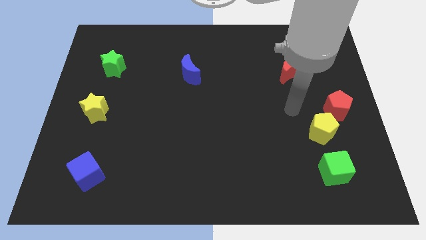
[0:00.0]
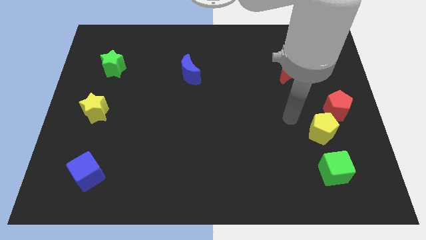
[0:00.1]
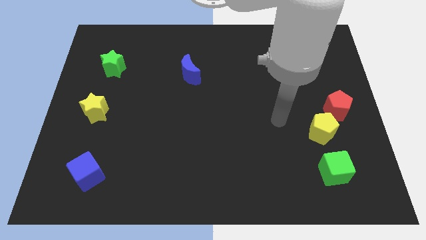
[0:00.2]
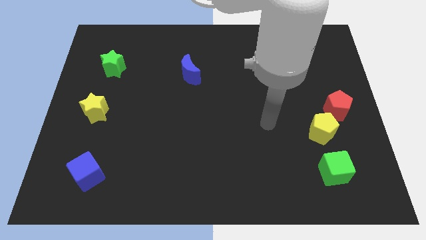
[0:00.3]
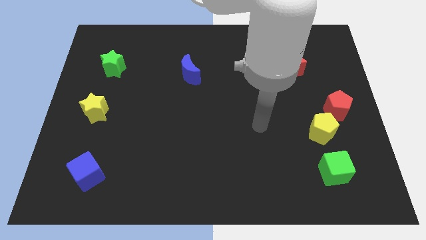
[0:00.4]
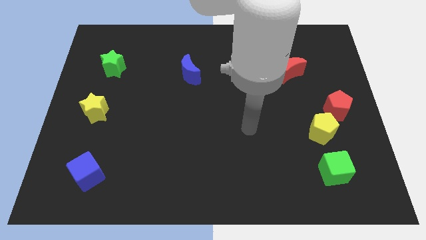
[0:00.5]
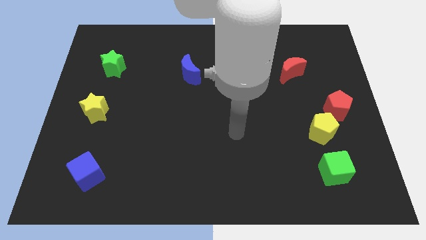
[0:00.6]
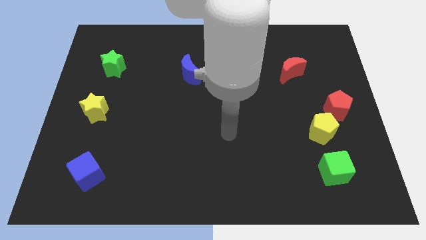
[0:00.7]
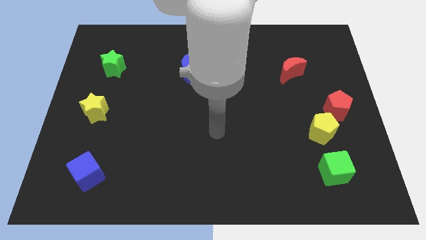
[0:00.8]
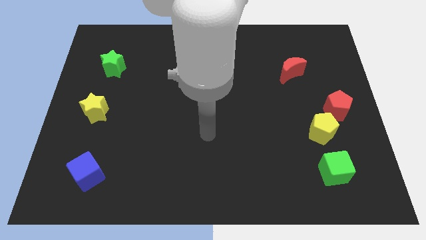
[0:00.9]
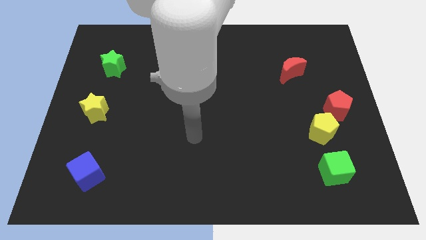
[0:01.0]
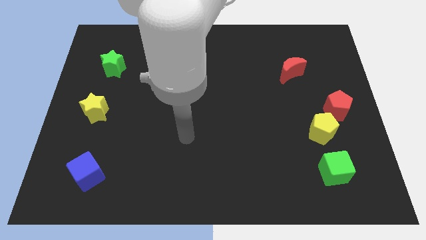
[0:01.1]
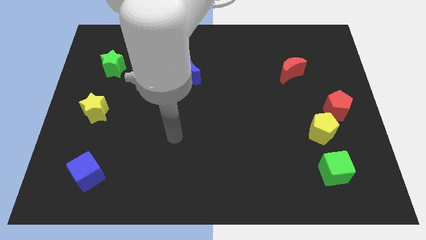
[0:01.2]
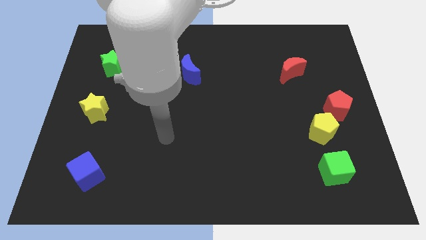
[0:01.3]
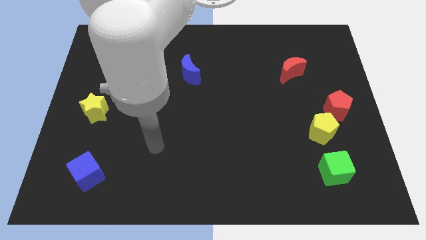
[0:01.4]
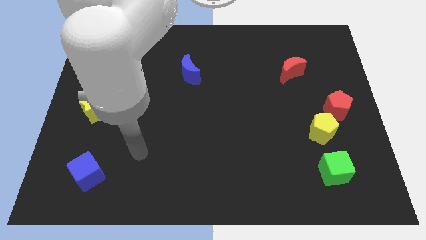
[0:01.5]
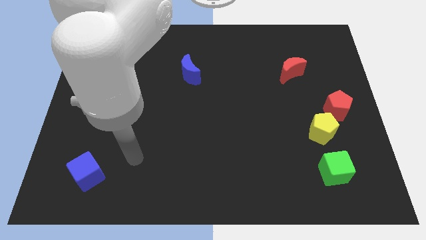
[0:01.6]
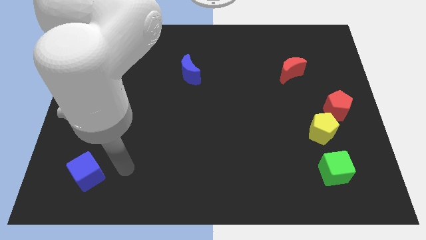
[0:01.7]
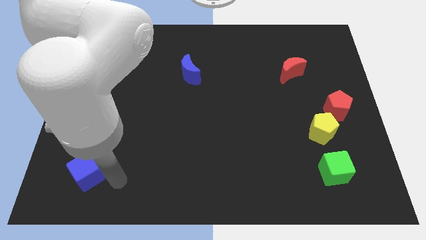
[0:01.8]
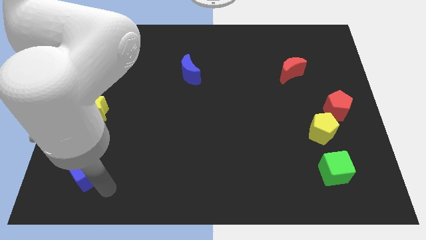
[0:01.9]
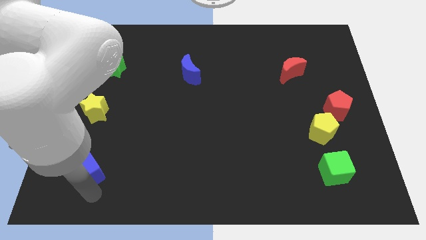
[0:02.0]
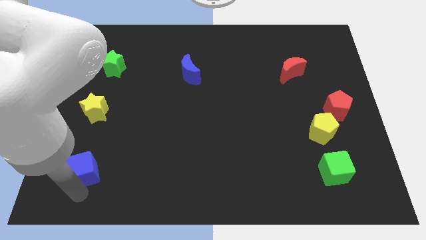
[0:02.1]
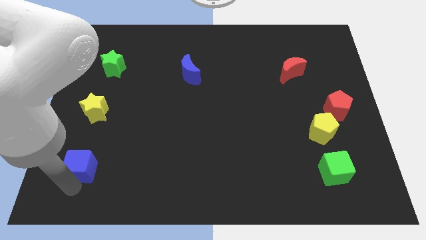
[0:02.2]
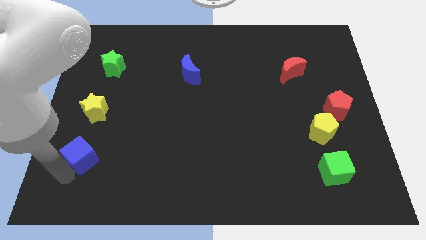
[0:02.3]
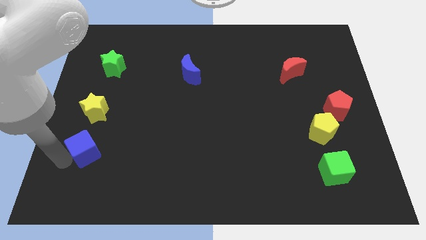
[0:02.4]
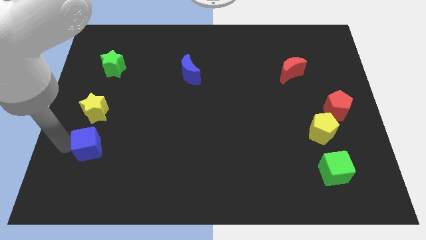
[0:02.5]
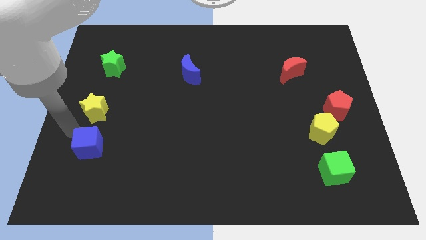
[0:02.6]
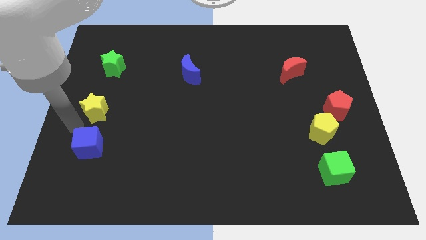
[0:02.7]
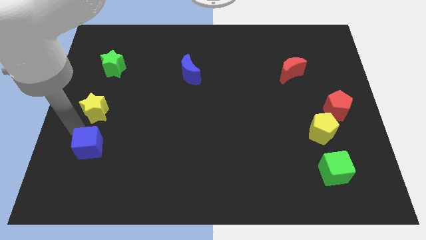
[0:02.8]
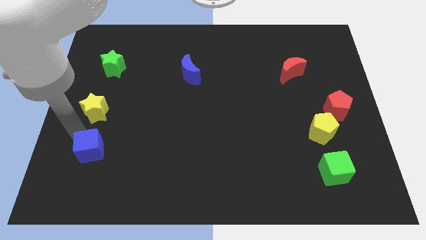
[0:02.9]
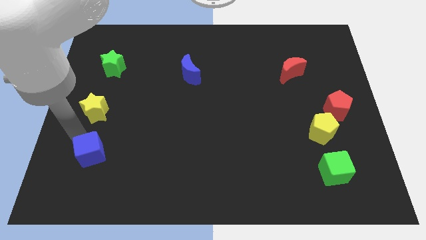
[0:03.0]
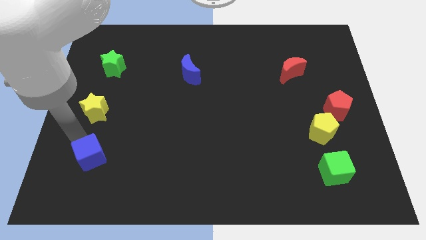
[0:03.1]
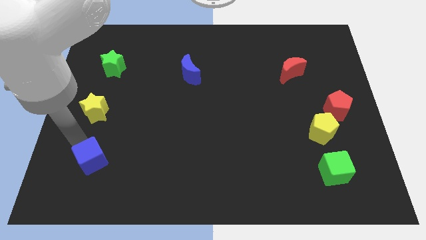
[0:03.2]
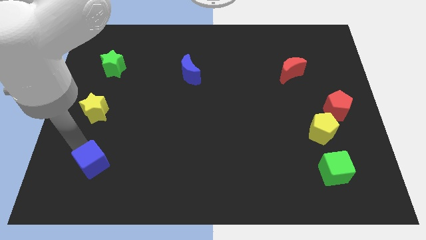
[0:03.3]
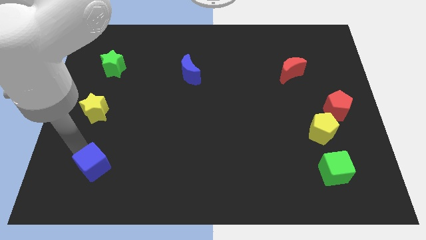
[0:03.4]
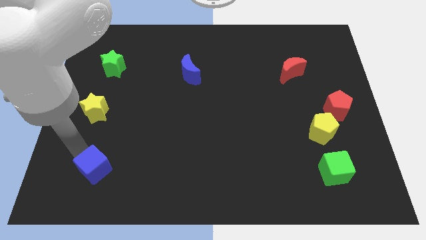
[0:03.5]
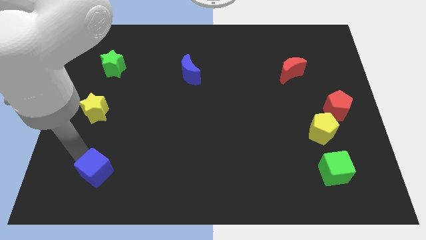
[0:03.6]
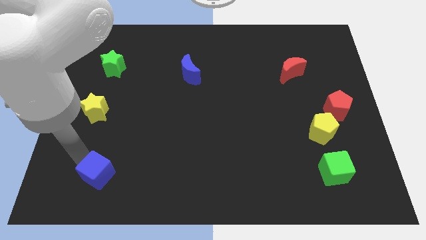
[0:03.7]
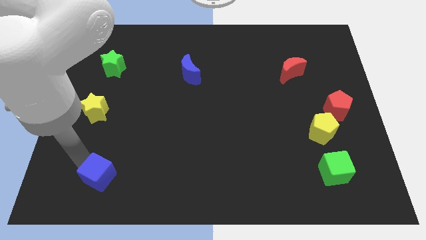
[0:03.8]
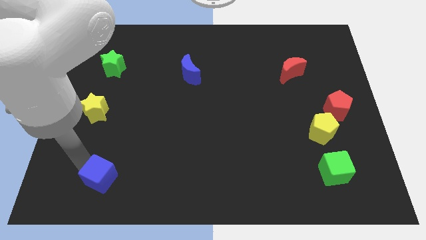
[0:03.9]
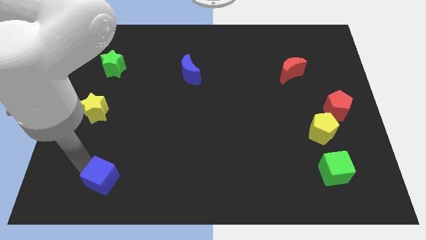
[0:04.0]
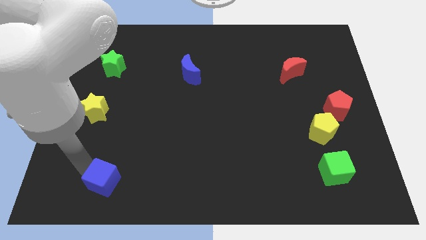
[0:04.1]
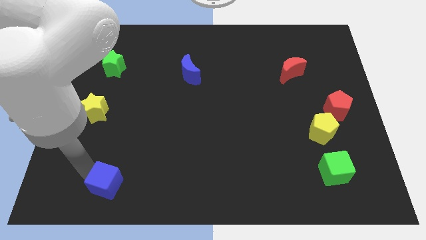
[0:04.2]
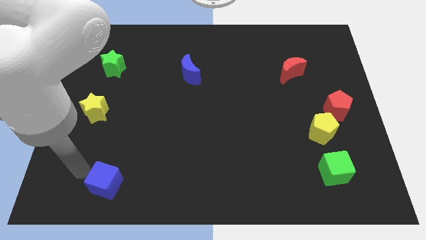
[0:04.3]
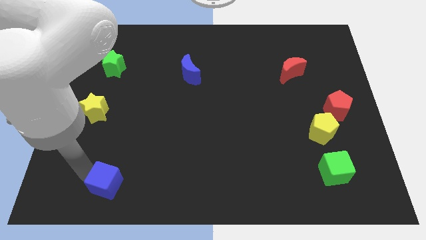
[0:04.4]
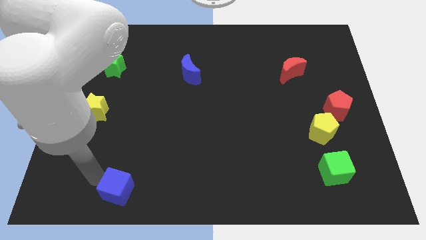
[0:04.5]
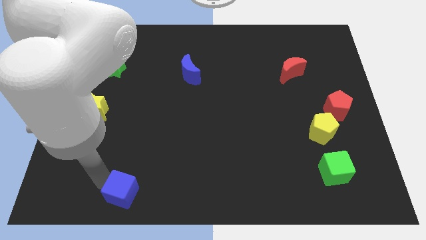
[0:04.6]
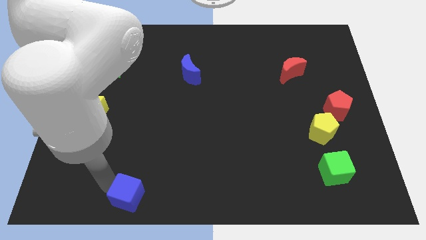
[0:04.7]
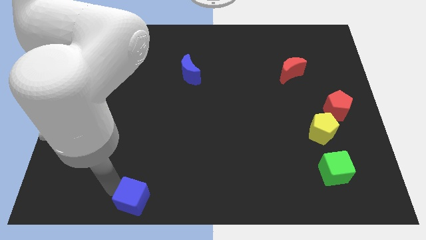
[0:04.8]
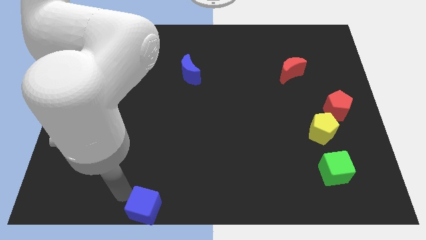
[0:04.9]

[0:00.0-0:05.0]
put the blue cube to the bottom side

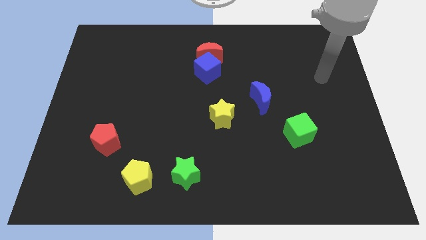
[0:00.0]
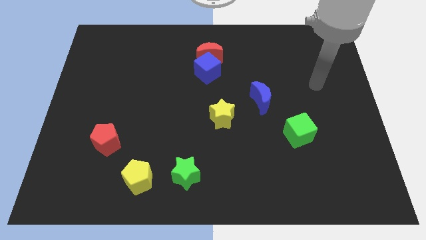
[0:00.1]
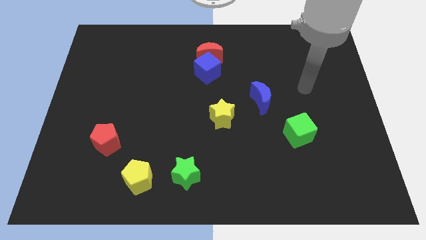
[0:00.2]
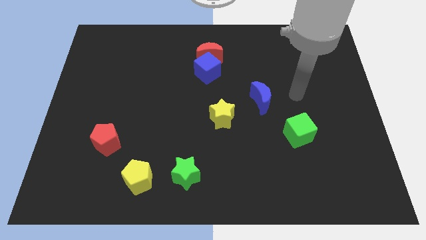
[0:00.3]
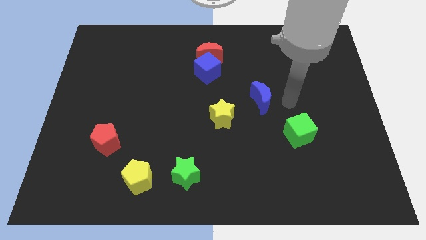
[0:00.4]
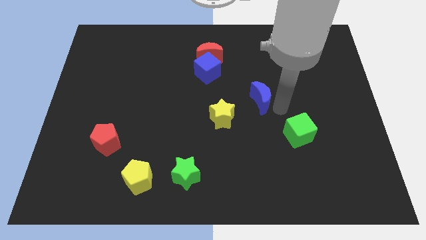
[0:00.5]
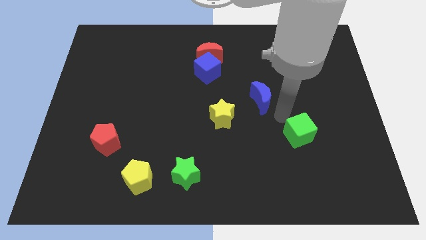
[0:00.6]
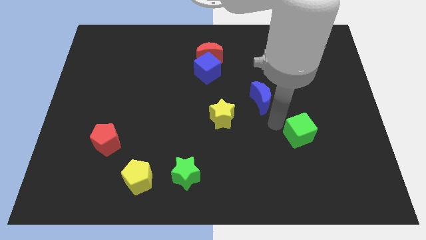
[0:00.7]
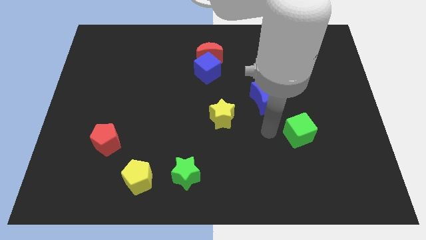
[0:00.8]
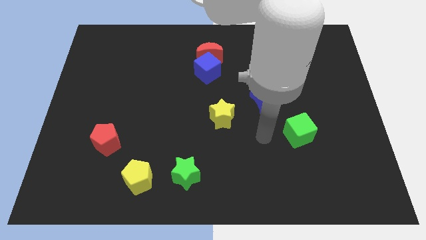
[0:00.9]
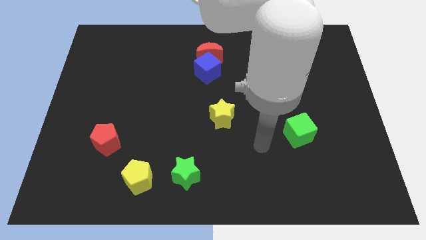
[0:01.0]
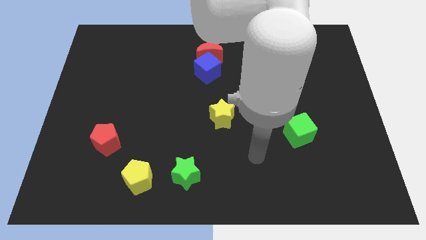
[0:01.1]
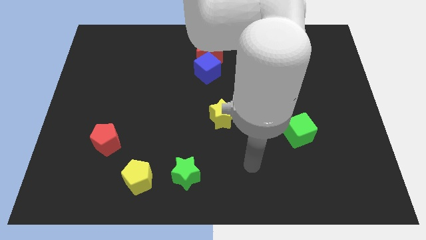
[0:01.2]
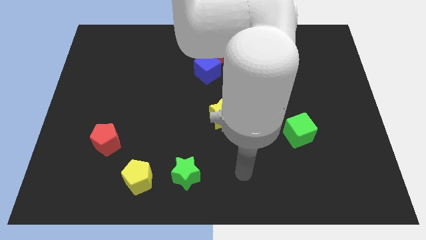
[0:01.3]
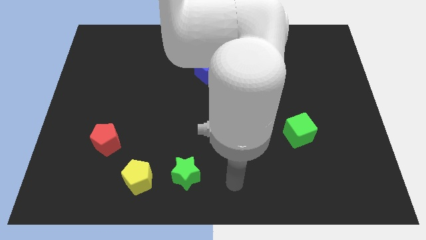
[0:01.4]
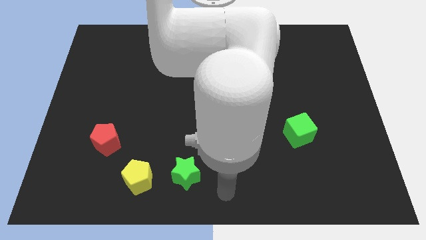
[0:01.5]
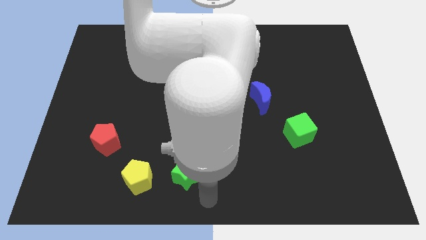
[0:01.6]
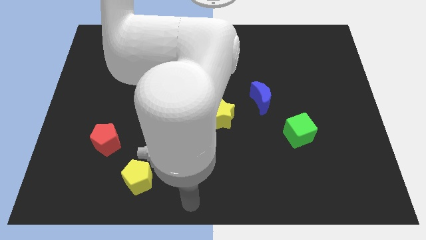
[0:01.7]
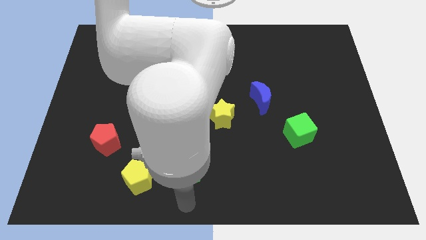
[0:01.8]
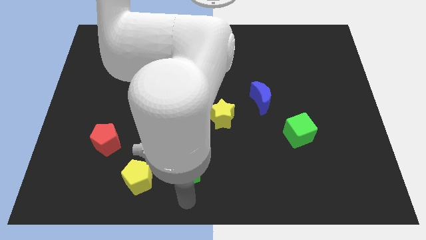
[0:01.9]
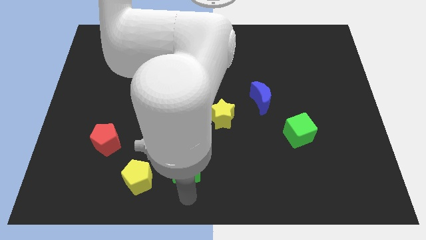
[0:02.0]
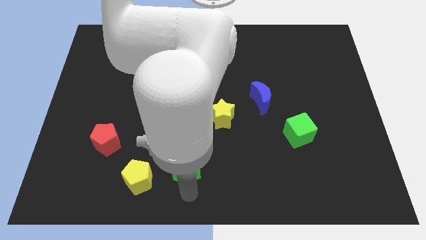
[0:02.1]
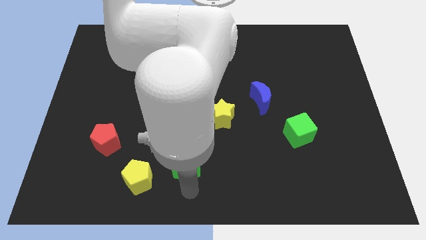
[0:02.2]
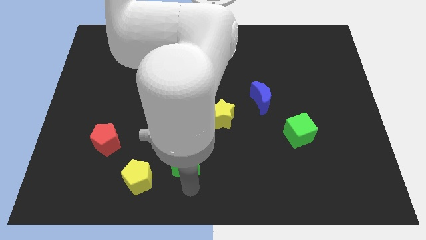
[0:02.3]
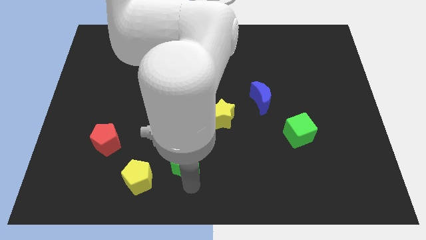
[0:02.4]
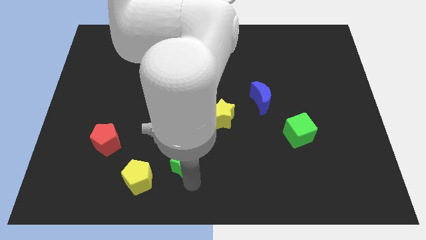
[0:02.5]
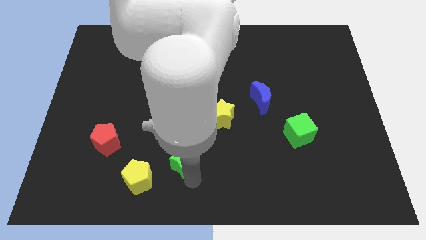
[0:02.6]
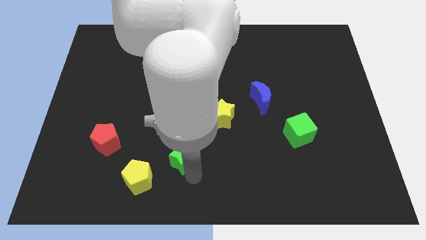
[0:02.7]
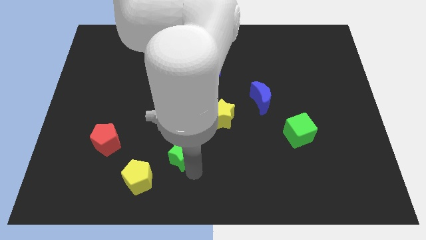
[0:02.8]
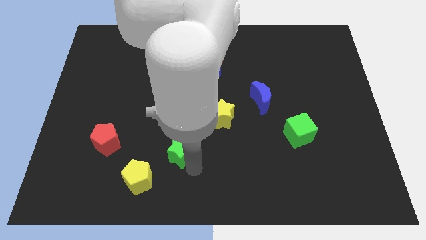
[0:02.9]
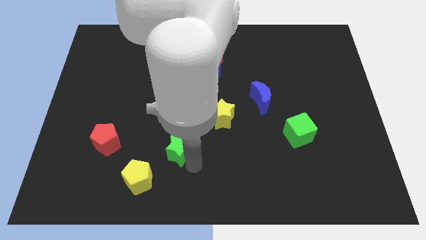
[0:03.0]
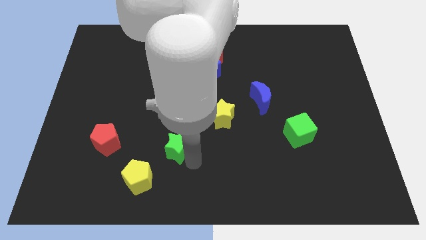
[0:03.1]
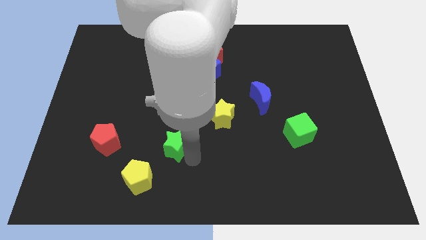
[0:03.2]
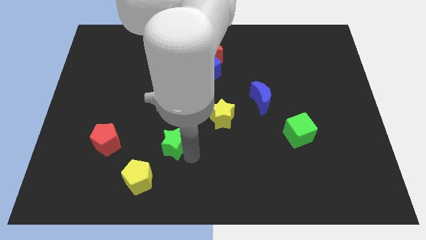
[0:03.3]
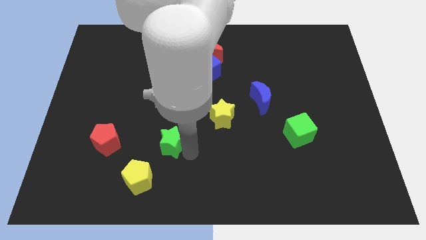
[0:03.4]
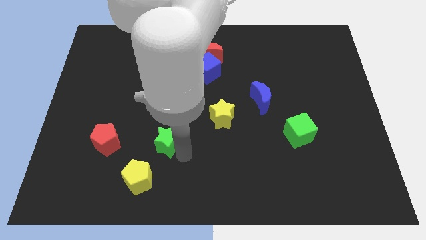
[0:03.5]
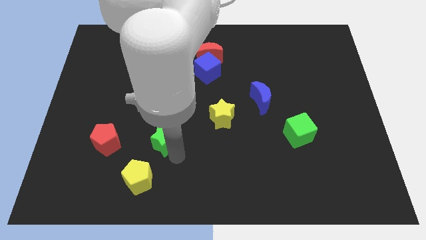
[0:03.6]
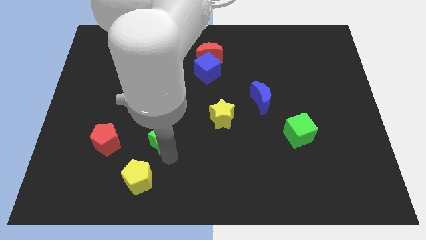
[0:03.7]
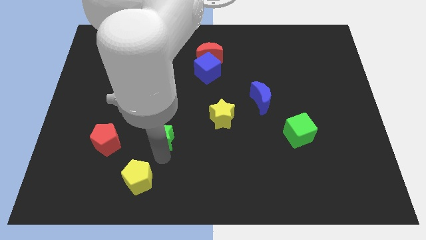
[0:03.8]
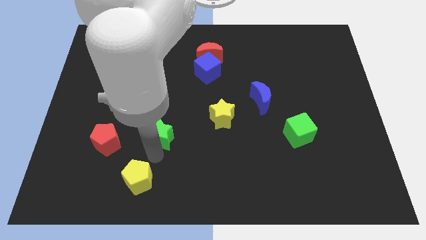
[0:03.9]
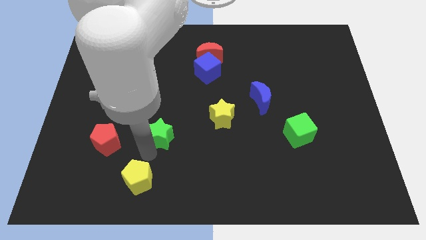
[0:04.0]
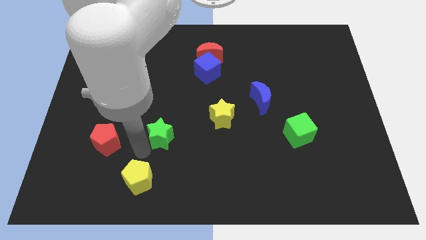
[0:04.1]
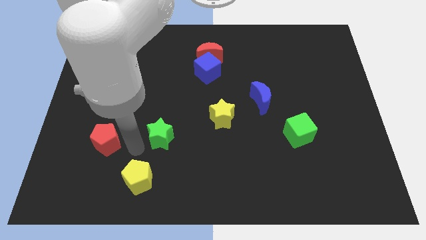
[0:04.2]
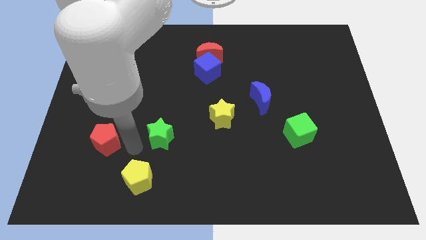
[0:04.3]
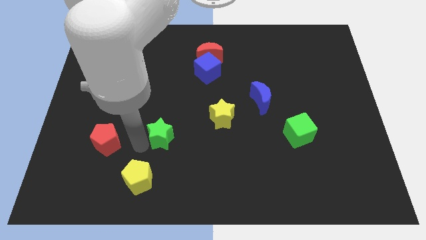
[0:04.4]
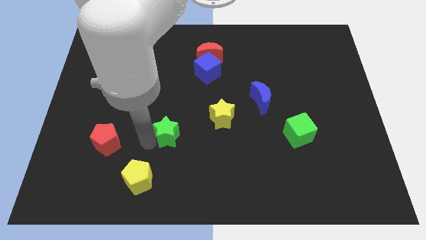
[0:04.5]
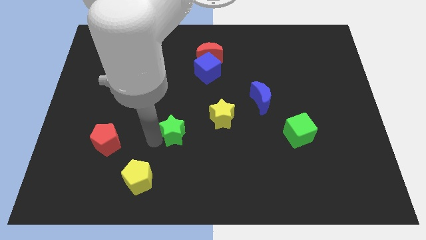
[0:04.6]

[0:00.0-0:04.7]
push the green star to the center
